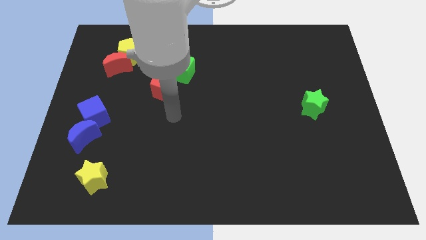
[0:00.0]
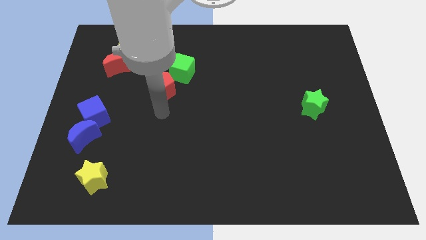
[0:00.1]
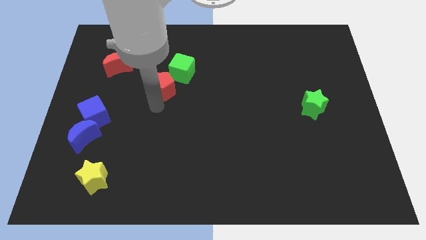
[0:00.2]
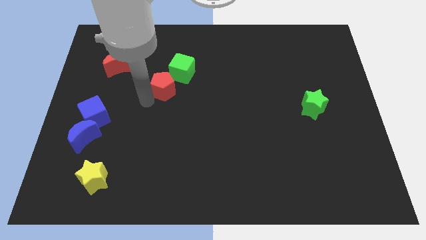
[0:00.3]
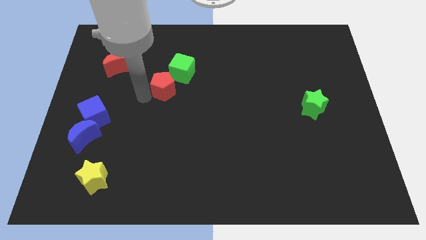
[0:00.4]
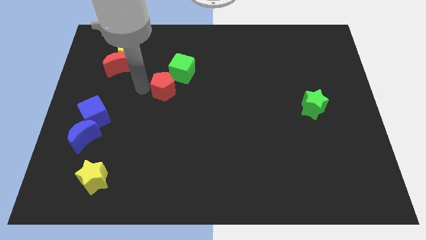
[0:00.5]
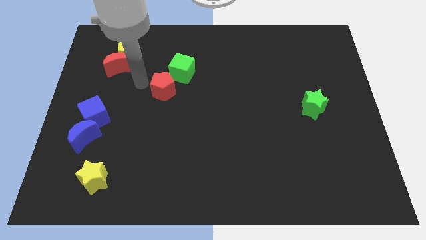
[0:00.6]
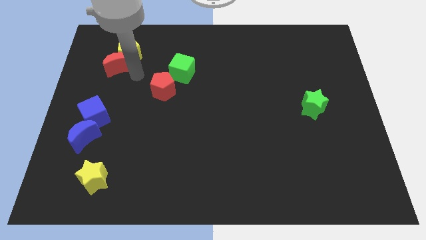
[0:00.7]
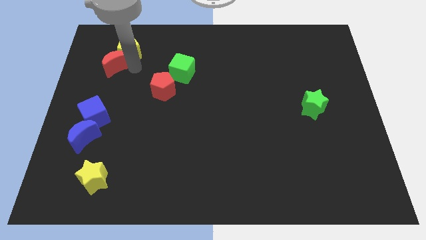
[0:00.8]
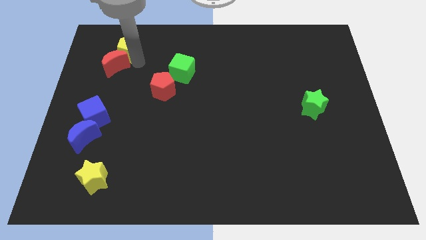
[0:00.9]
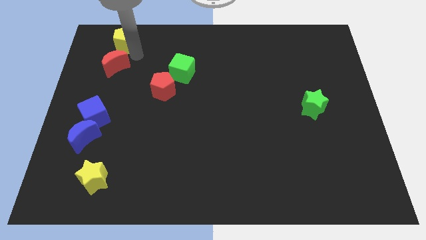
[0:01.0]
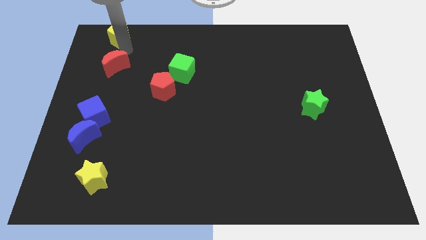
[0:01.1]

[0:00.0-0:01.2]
separate the red moon from the yellow pentagon

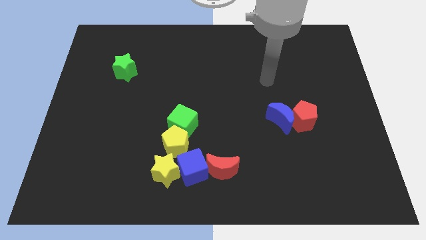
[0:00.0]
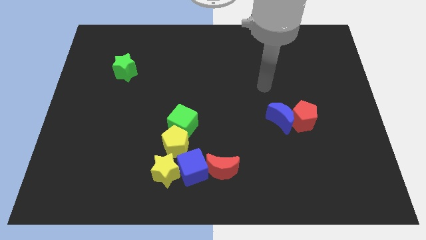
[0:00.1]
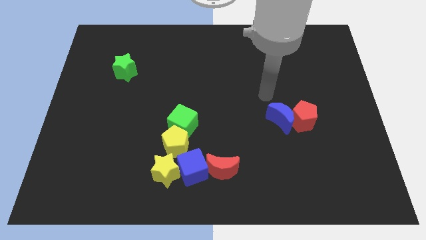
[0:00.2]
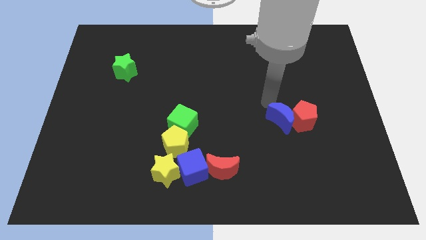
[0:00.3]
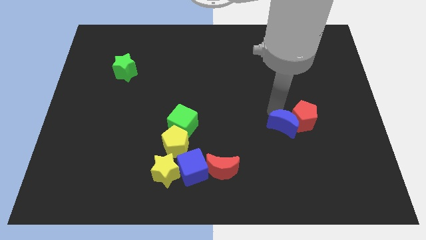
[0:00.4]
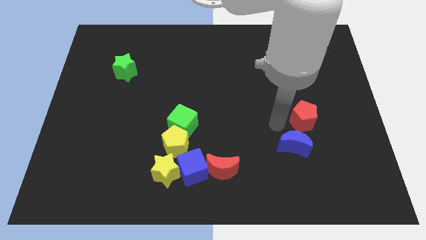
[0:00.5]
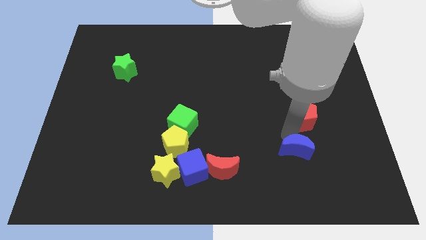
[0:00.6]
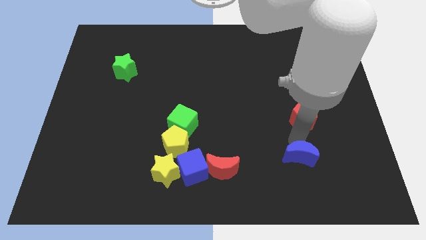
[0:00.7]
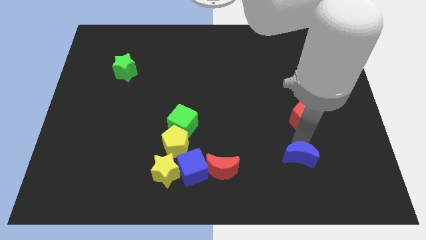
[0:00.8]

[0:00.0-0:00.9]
pull the red pentagon apart from the blue moon

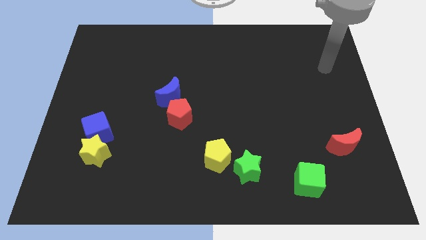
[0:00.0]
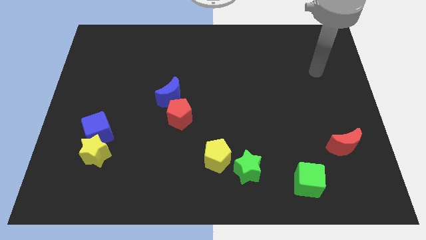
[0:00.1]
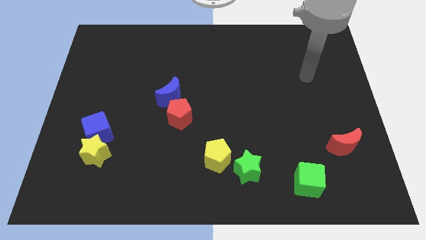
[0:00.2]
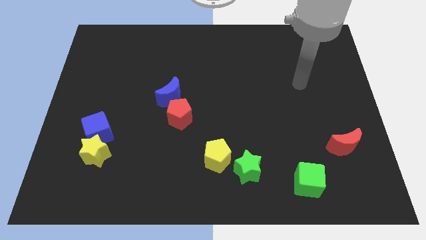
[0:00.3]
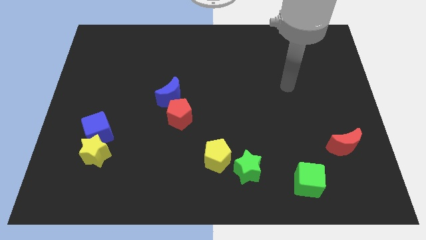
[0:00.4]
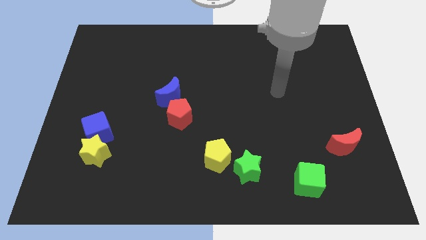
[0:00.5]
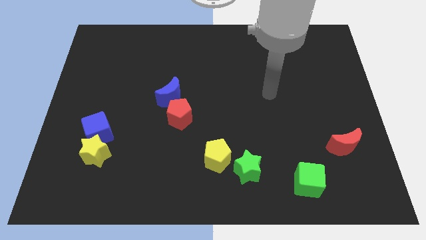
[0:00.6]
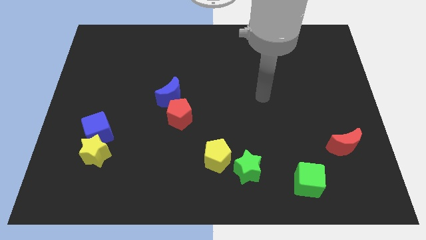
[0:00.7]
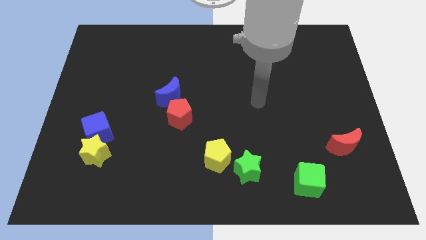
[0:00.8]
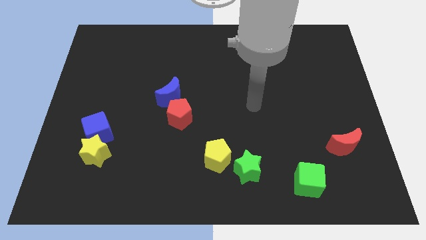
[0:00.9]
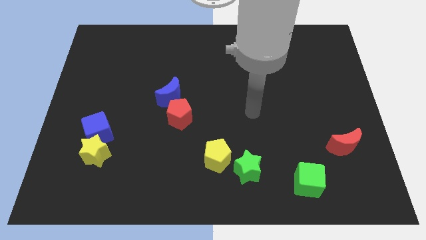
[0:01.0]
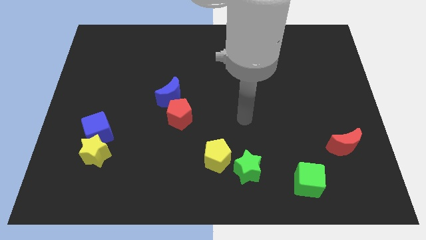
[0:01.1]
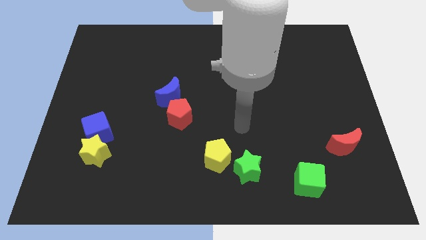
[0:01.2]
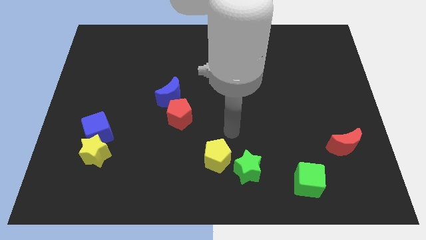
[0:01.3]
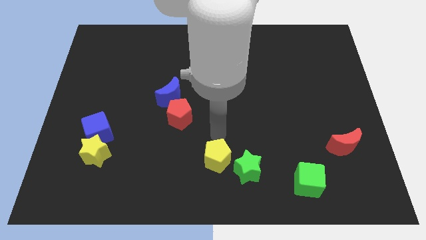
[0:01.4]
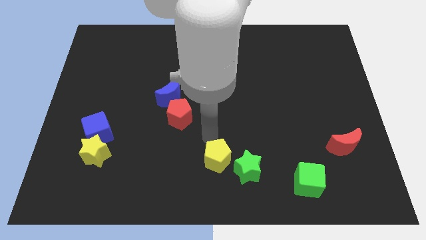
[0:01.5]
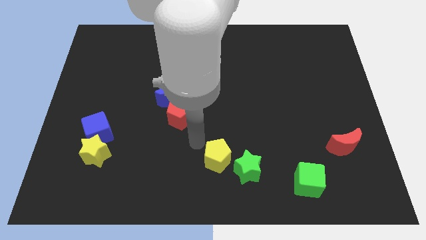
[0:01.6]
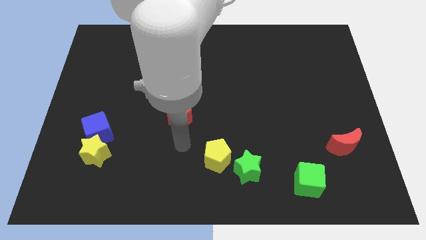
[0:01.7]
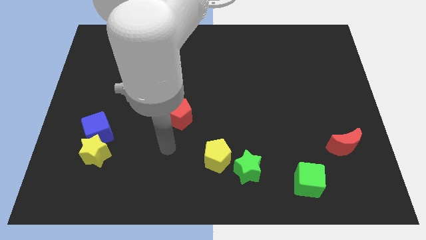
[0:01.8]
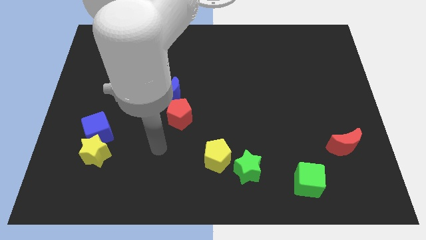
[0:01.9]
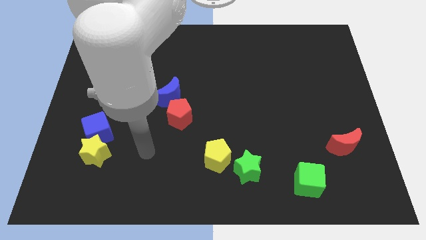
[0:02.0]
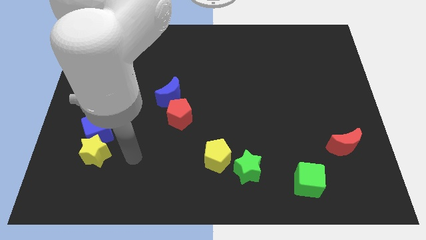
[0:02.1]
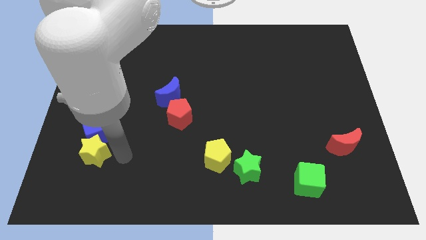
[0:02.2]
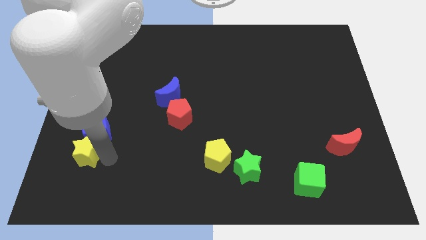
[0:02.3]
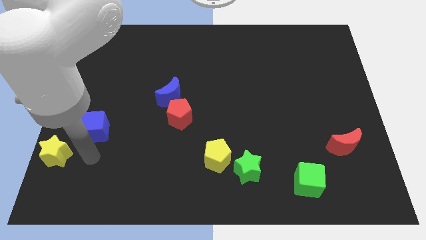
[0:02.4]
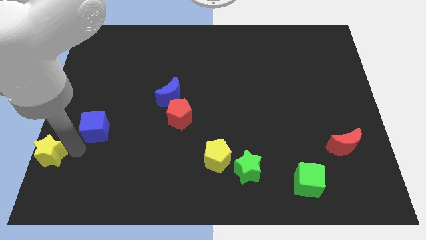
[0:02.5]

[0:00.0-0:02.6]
pull the blue cube apart from the yellow star

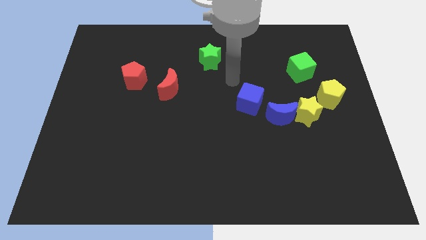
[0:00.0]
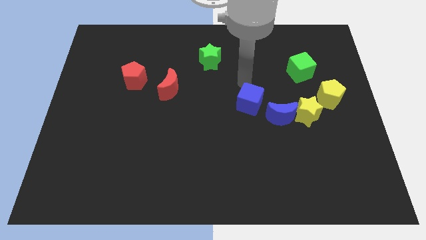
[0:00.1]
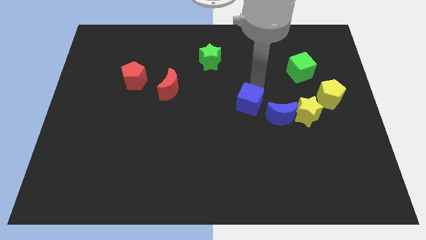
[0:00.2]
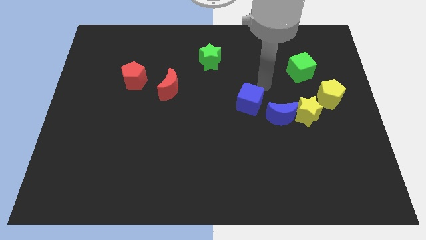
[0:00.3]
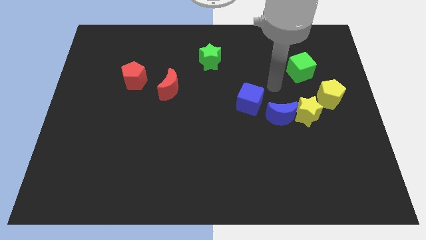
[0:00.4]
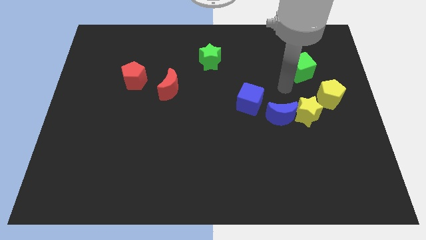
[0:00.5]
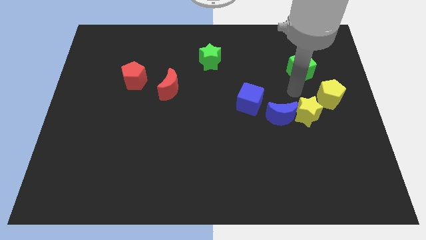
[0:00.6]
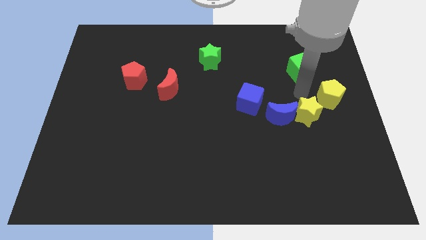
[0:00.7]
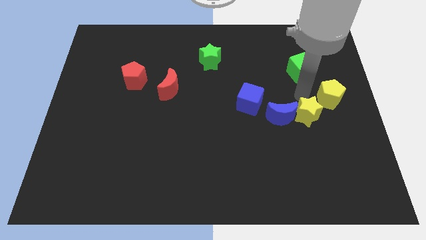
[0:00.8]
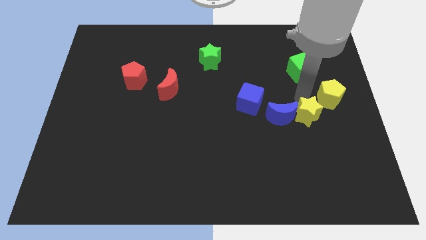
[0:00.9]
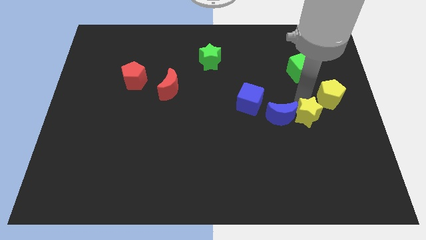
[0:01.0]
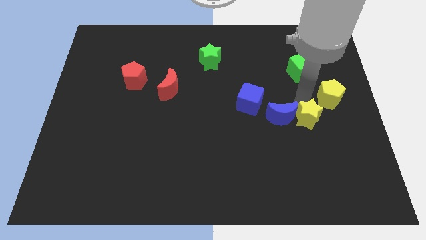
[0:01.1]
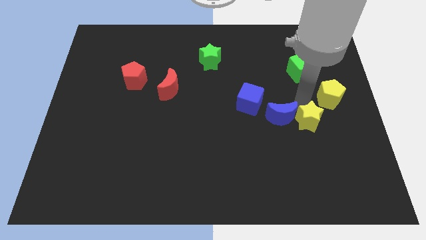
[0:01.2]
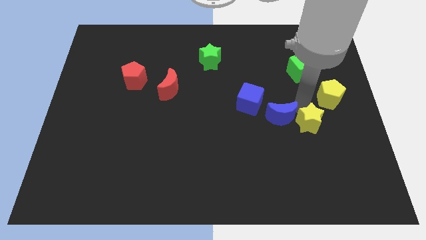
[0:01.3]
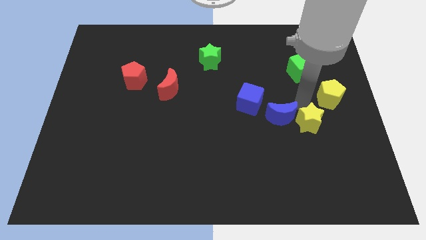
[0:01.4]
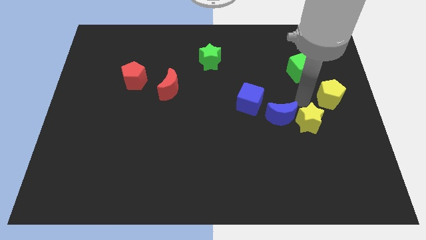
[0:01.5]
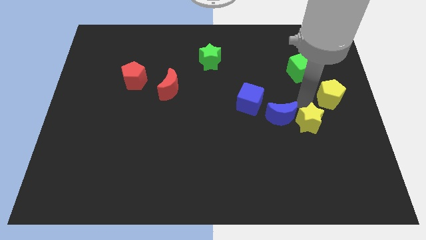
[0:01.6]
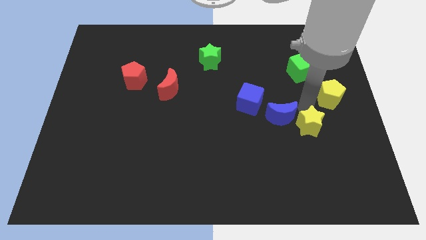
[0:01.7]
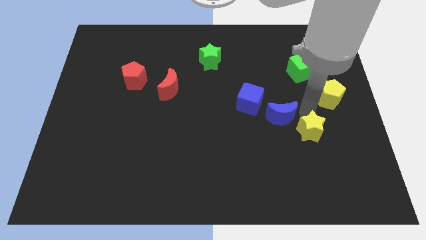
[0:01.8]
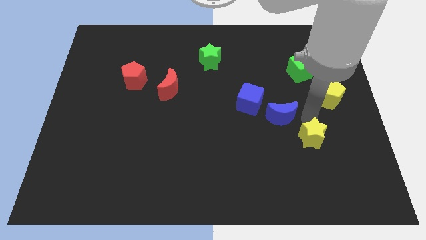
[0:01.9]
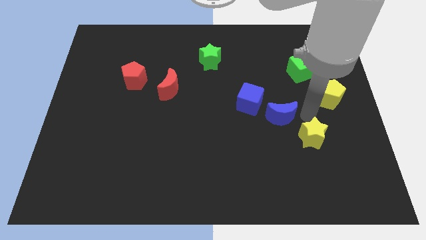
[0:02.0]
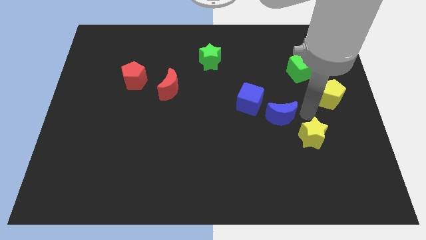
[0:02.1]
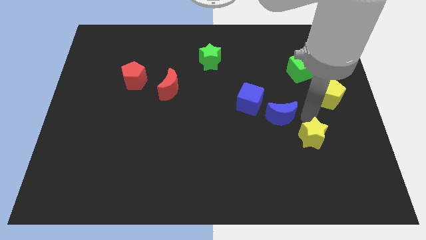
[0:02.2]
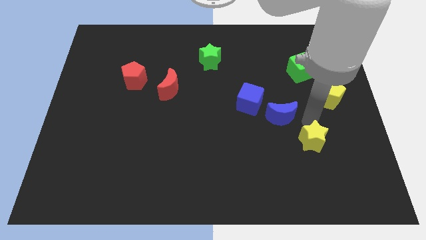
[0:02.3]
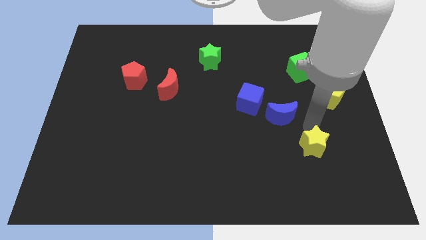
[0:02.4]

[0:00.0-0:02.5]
separate the yellow star from the blue moon and yellow pentagon

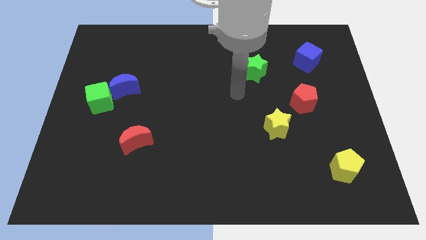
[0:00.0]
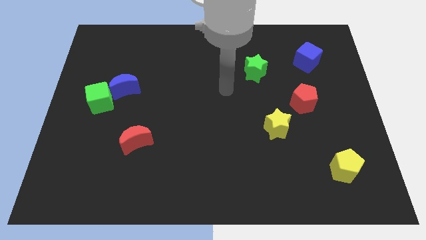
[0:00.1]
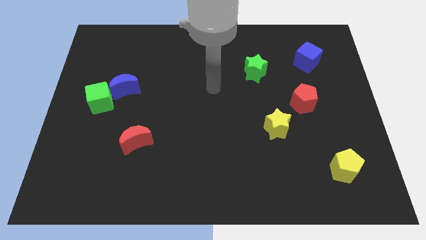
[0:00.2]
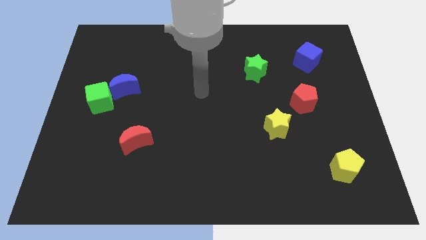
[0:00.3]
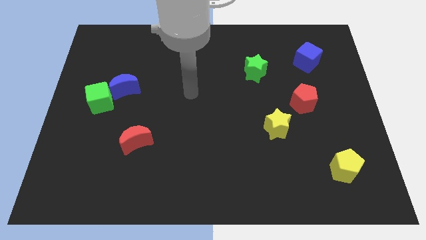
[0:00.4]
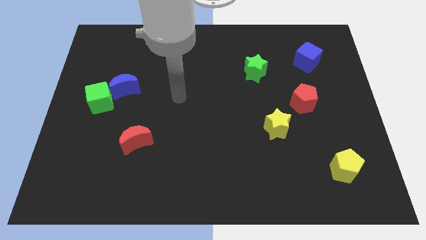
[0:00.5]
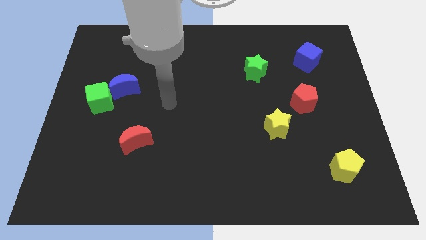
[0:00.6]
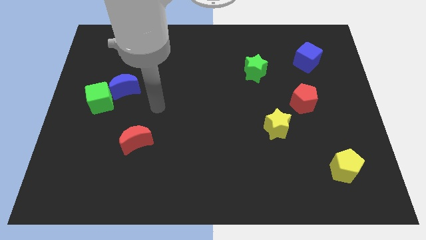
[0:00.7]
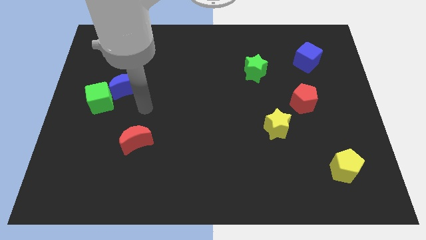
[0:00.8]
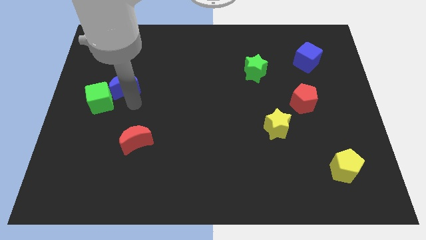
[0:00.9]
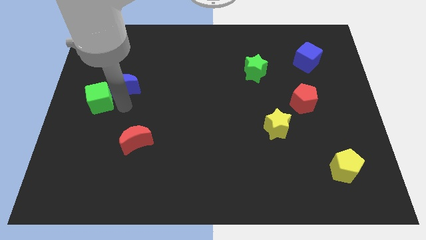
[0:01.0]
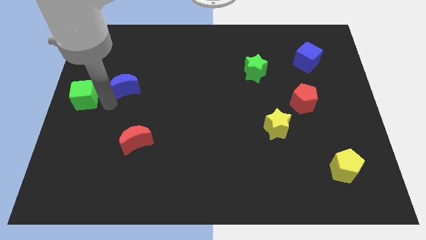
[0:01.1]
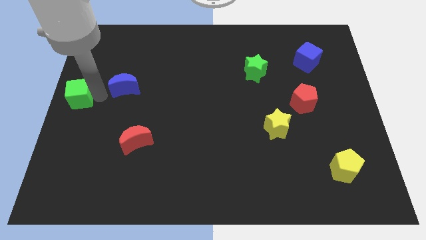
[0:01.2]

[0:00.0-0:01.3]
move the blue moon away from the green cube

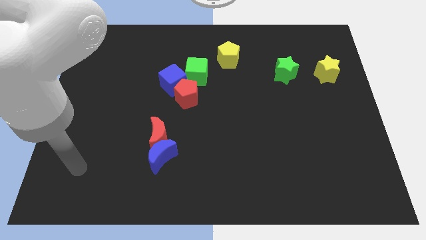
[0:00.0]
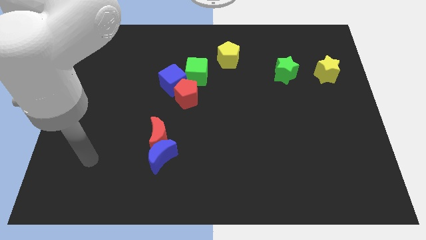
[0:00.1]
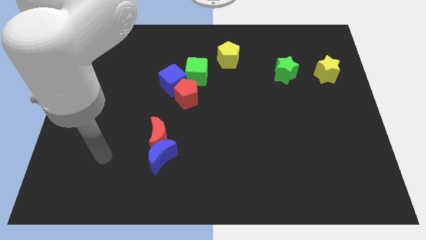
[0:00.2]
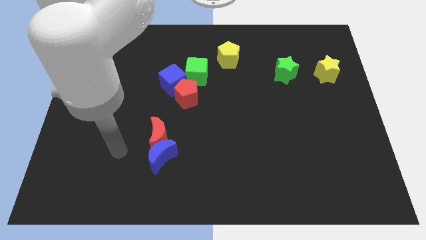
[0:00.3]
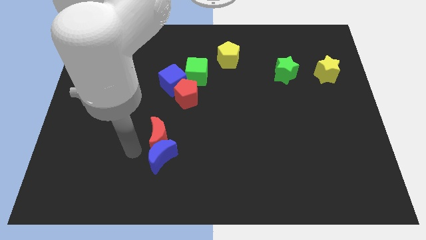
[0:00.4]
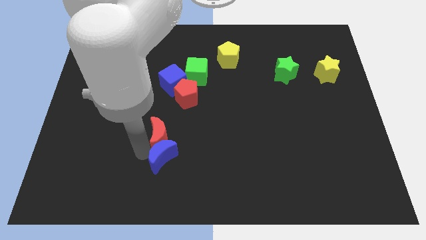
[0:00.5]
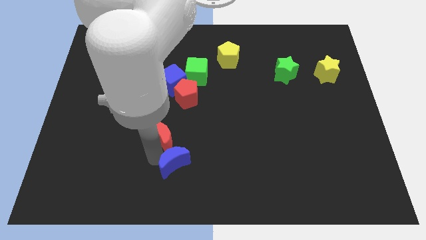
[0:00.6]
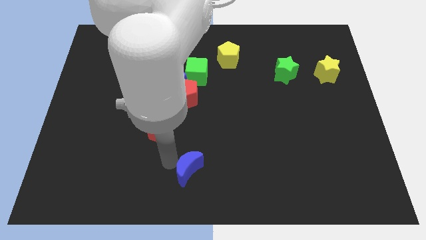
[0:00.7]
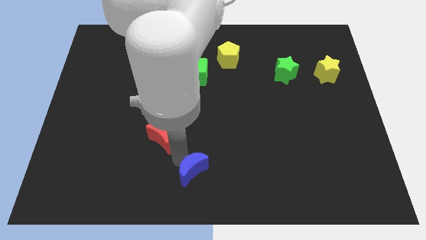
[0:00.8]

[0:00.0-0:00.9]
move the red moon away from the blue moon
